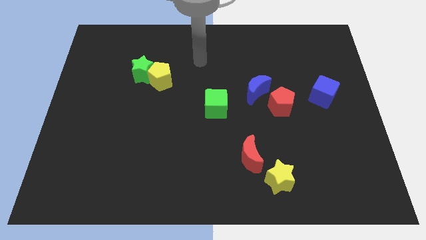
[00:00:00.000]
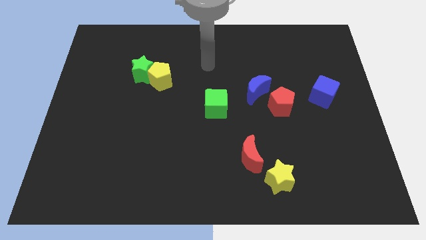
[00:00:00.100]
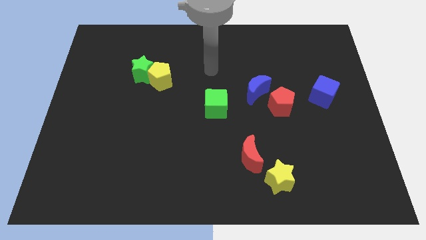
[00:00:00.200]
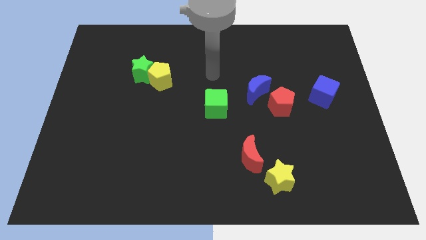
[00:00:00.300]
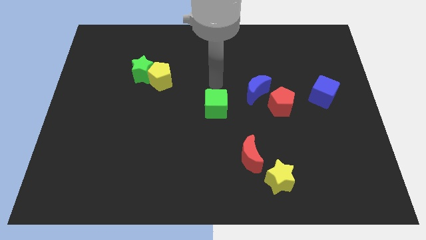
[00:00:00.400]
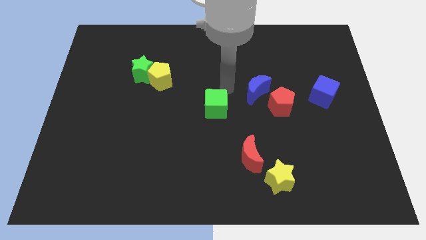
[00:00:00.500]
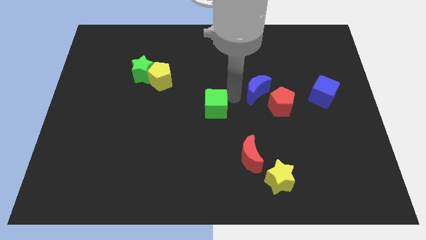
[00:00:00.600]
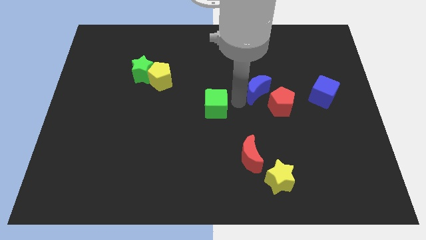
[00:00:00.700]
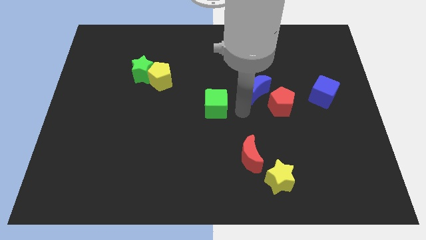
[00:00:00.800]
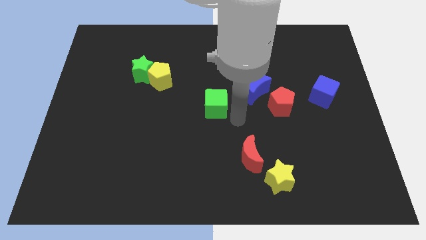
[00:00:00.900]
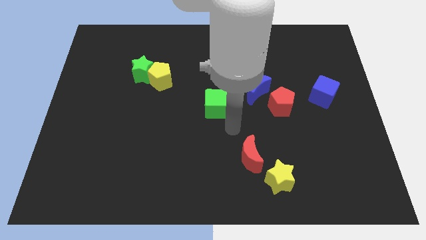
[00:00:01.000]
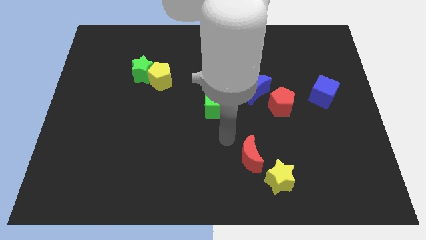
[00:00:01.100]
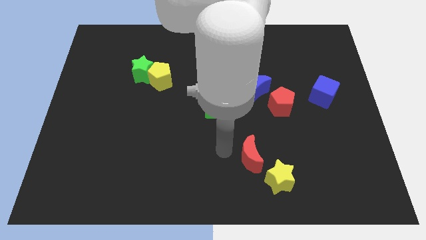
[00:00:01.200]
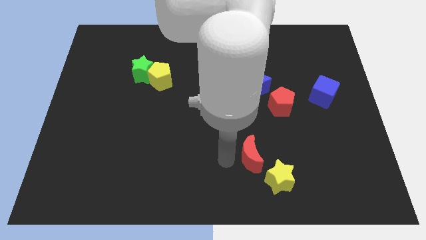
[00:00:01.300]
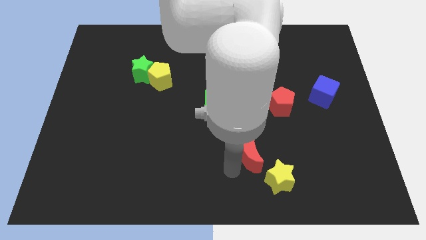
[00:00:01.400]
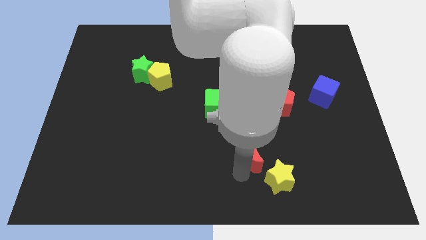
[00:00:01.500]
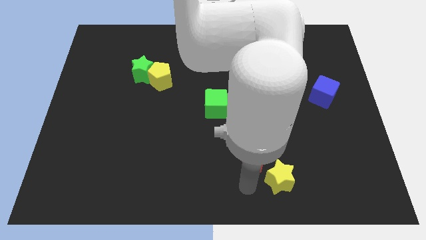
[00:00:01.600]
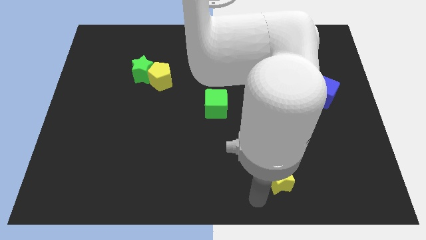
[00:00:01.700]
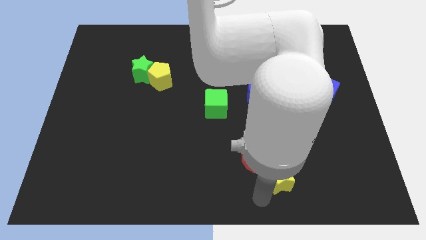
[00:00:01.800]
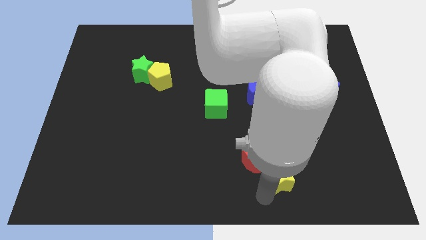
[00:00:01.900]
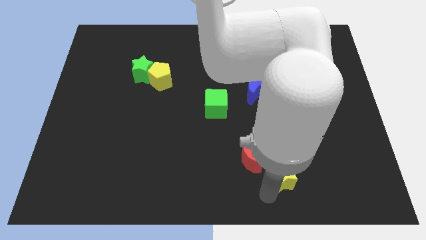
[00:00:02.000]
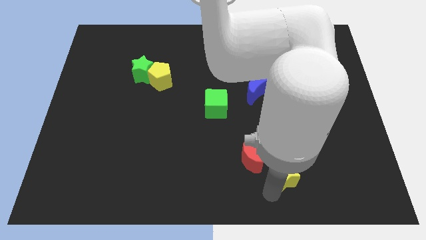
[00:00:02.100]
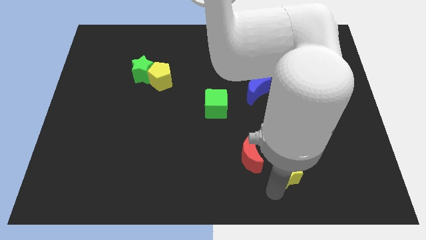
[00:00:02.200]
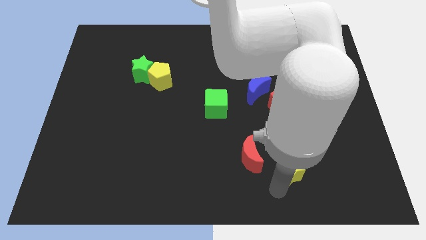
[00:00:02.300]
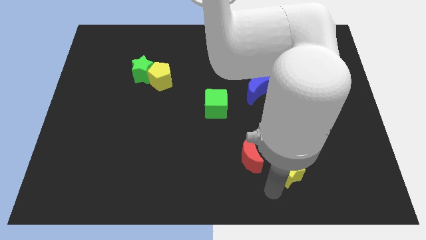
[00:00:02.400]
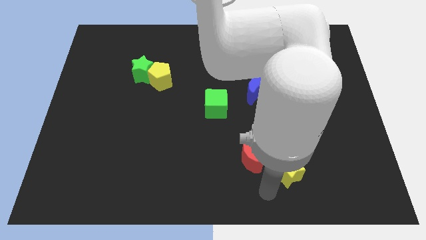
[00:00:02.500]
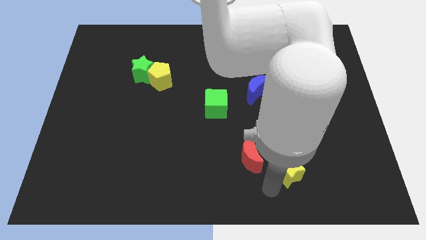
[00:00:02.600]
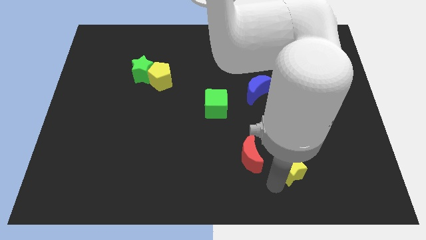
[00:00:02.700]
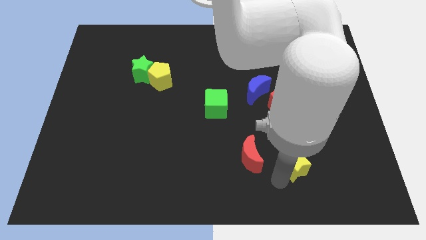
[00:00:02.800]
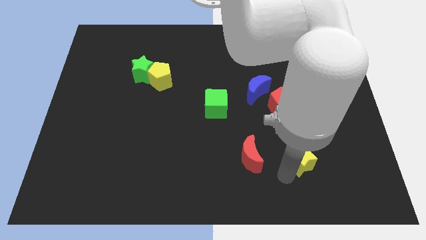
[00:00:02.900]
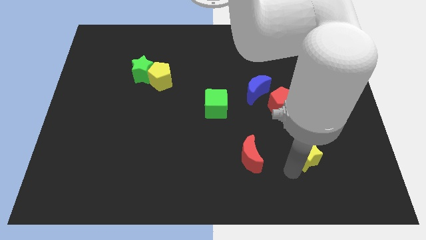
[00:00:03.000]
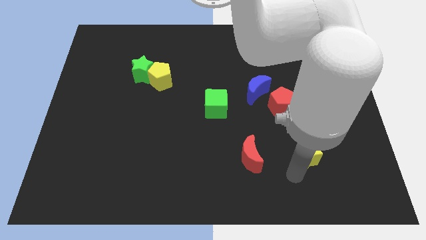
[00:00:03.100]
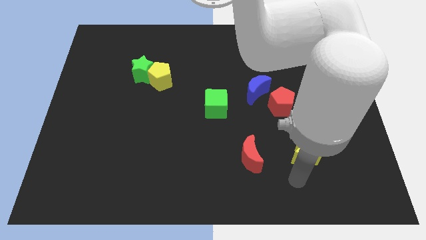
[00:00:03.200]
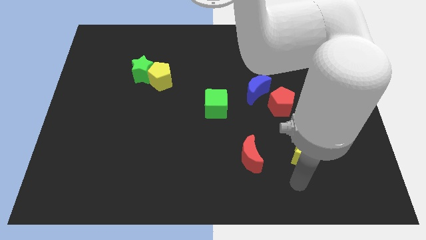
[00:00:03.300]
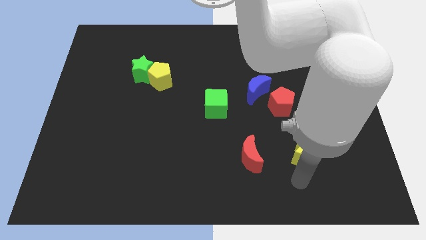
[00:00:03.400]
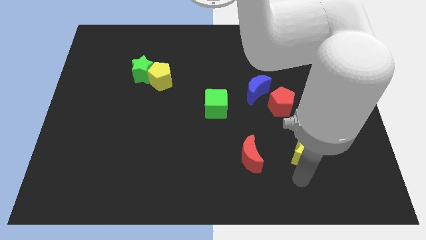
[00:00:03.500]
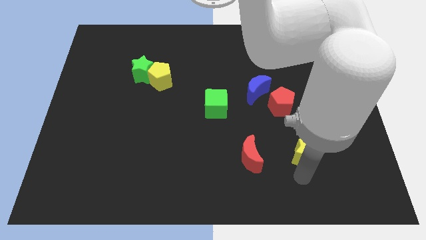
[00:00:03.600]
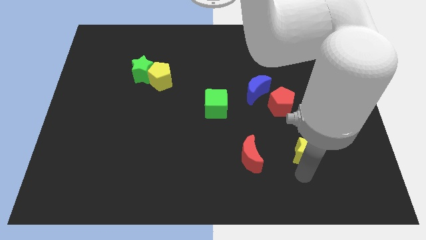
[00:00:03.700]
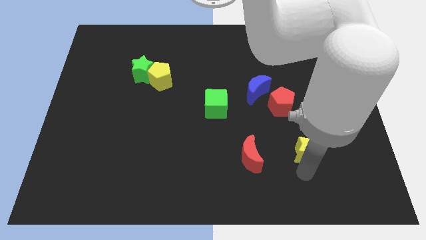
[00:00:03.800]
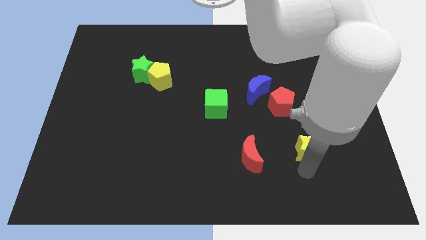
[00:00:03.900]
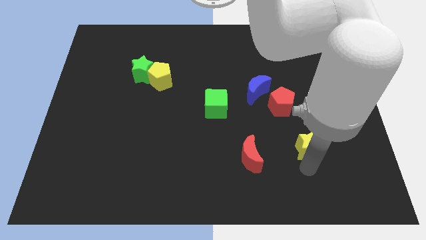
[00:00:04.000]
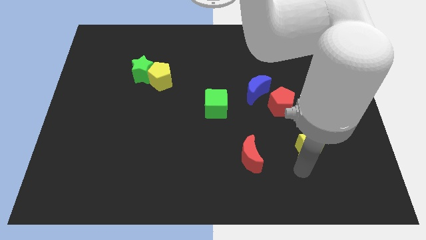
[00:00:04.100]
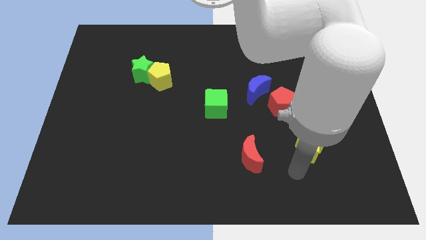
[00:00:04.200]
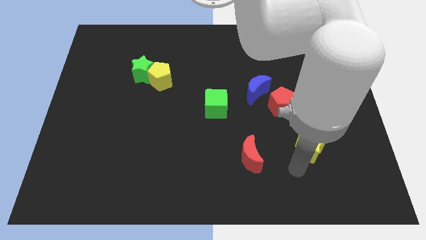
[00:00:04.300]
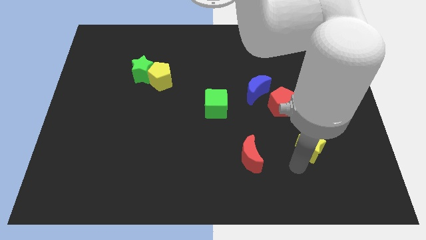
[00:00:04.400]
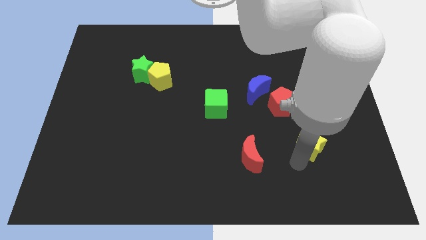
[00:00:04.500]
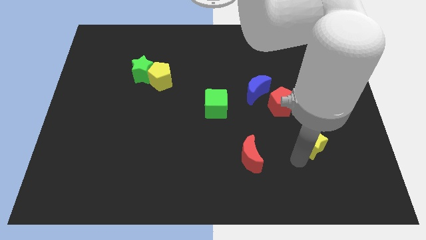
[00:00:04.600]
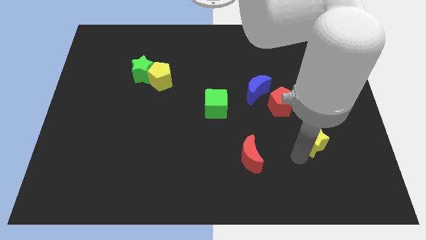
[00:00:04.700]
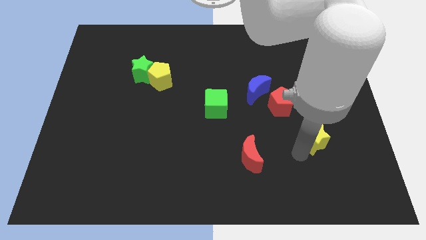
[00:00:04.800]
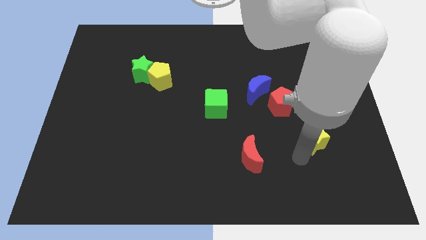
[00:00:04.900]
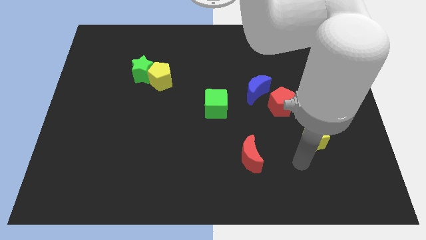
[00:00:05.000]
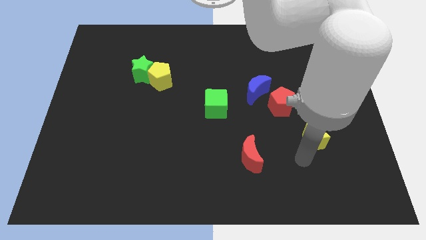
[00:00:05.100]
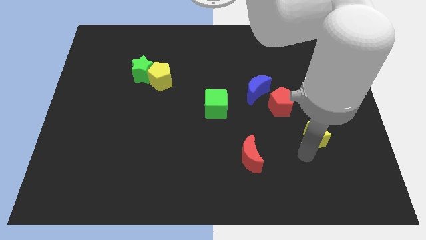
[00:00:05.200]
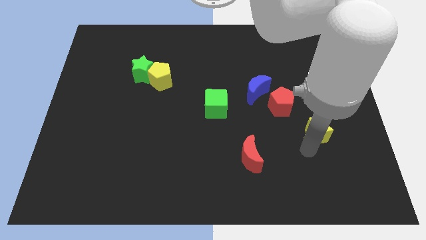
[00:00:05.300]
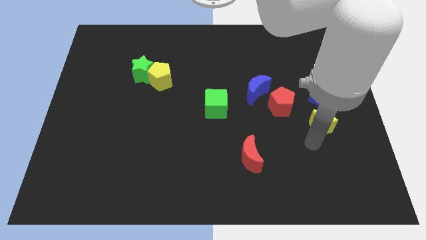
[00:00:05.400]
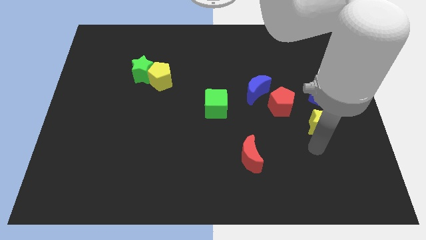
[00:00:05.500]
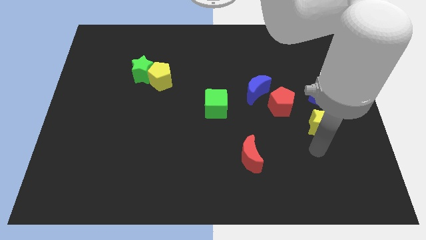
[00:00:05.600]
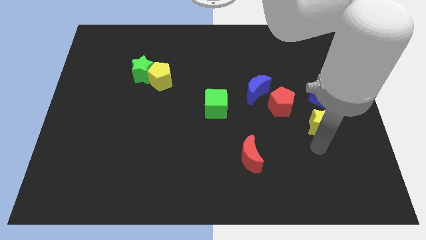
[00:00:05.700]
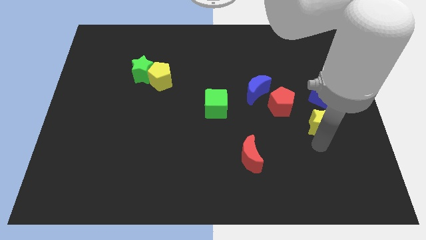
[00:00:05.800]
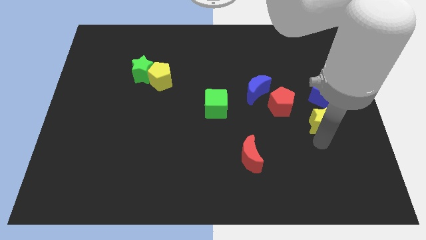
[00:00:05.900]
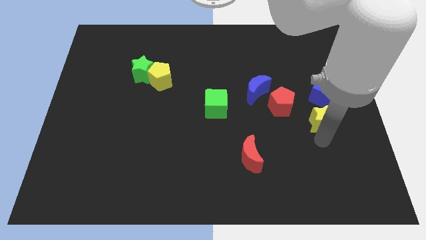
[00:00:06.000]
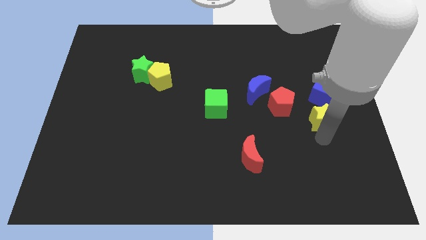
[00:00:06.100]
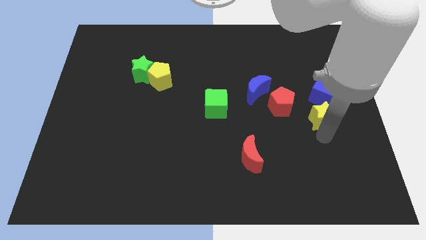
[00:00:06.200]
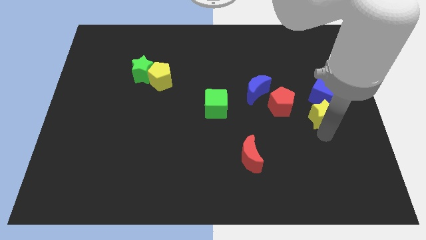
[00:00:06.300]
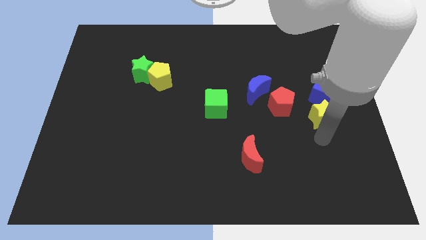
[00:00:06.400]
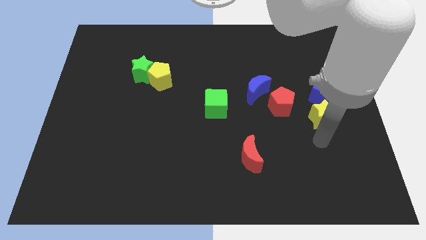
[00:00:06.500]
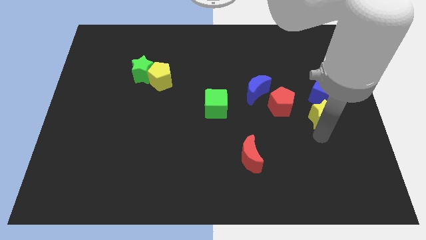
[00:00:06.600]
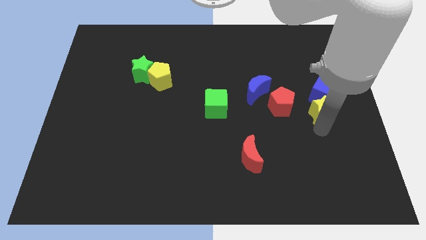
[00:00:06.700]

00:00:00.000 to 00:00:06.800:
move the yellow star to the blue cube

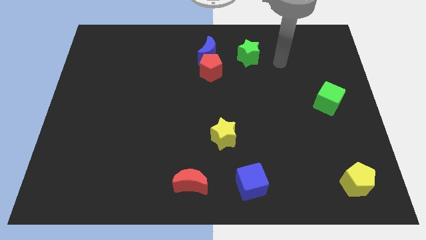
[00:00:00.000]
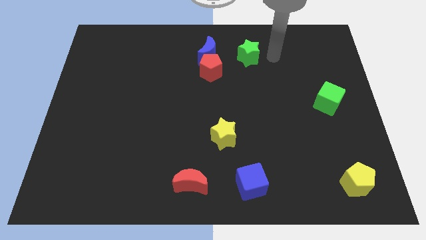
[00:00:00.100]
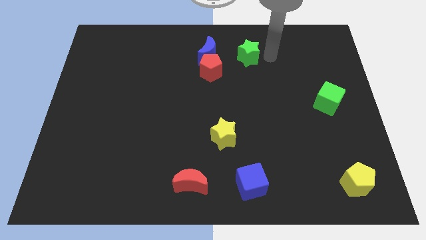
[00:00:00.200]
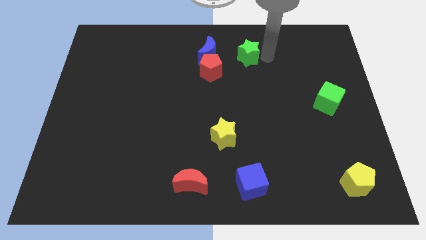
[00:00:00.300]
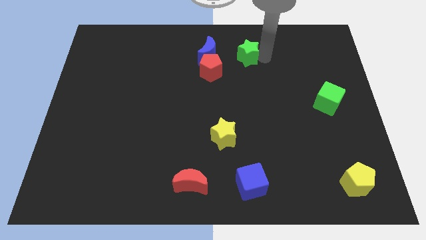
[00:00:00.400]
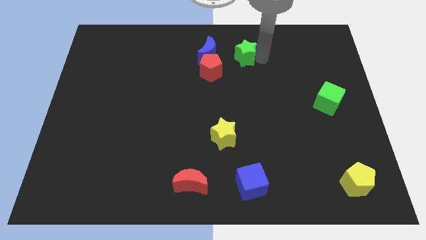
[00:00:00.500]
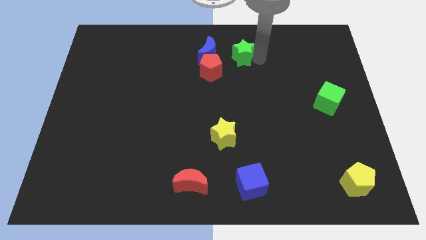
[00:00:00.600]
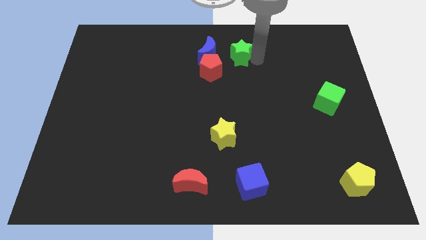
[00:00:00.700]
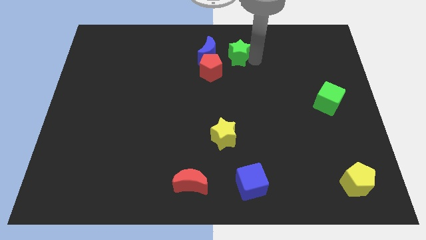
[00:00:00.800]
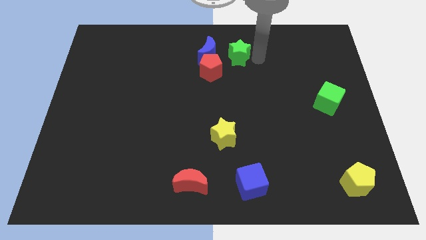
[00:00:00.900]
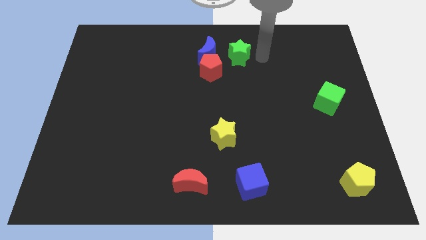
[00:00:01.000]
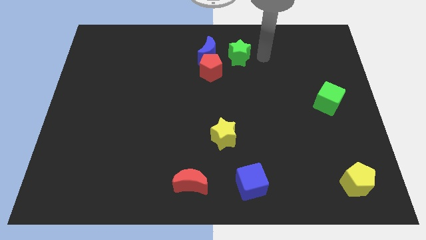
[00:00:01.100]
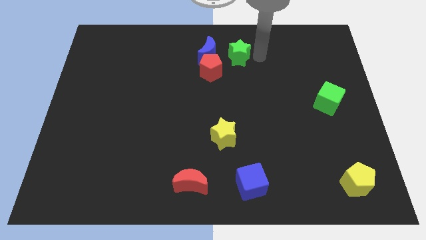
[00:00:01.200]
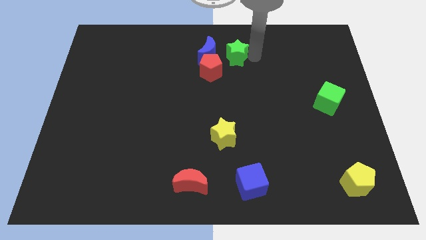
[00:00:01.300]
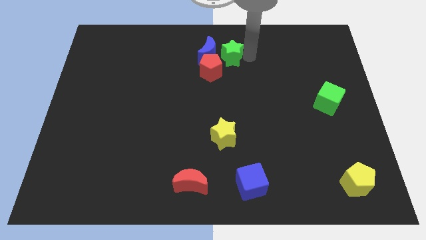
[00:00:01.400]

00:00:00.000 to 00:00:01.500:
move the green star to the blue moon
